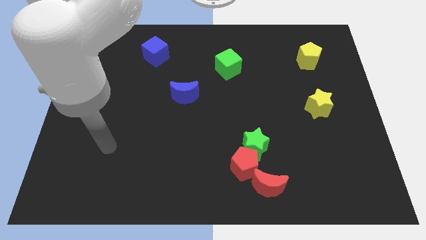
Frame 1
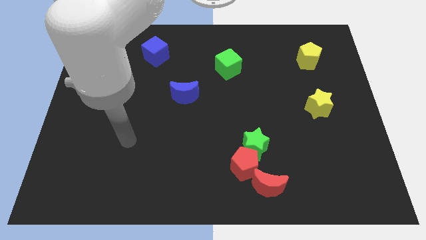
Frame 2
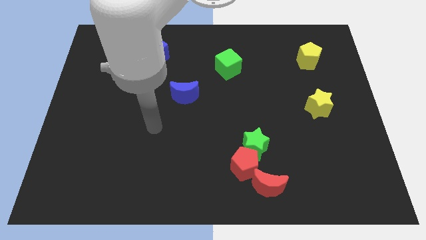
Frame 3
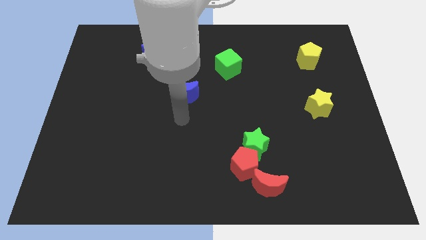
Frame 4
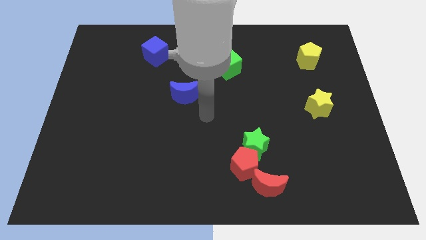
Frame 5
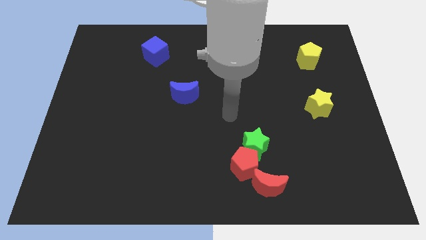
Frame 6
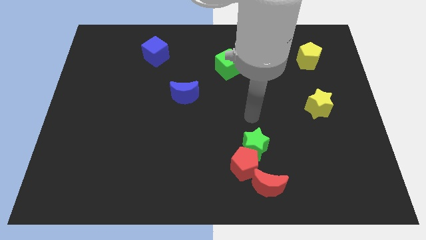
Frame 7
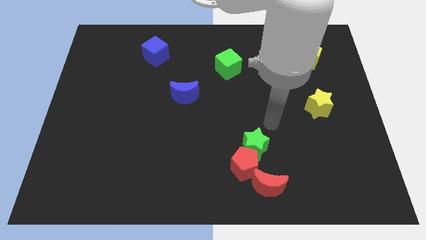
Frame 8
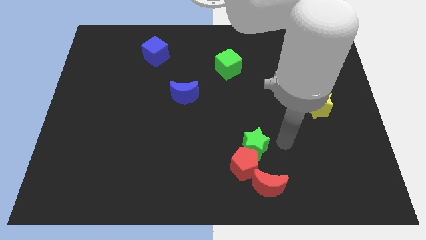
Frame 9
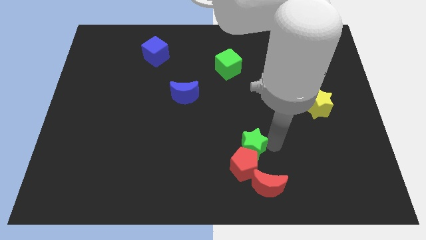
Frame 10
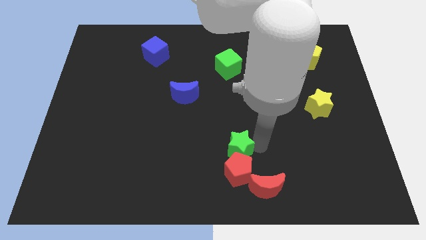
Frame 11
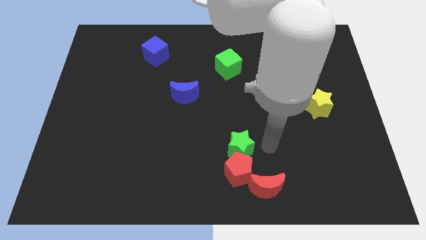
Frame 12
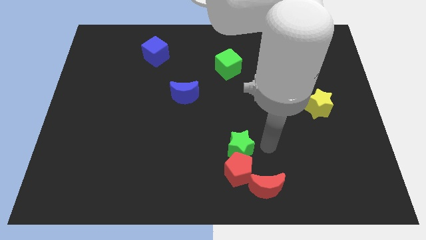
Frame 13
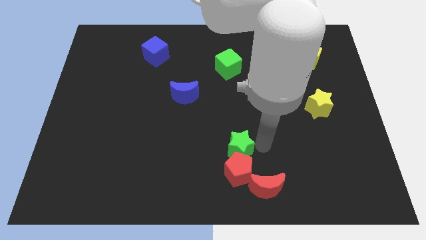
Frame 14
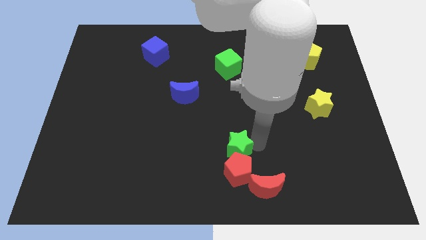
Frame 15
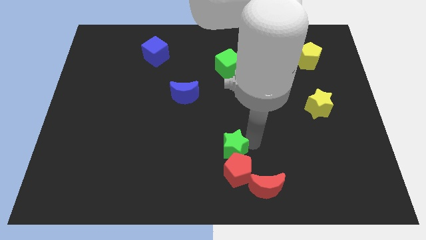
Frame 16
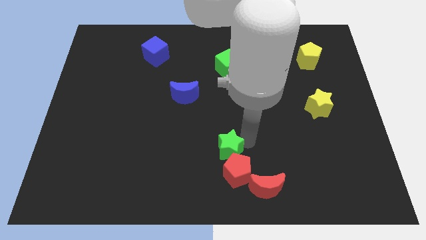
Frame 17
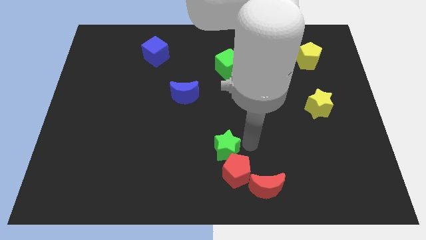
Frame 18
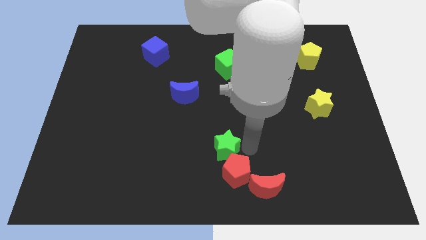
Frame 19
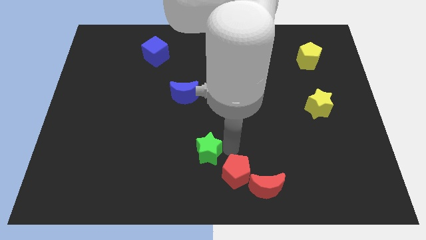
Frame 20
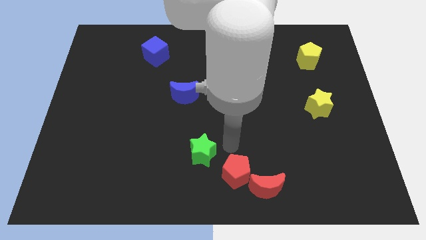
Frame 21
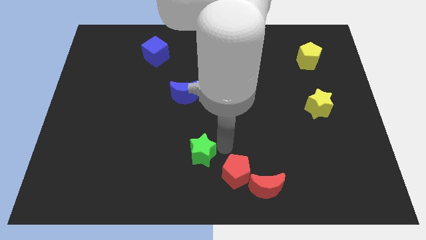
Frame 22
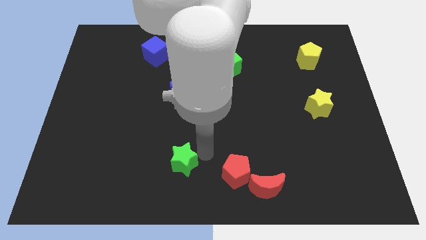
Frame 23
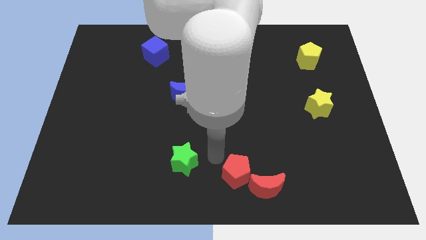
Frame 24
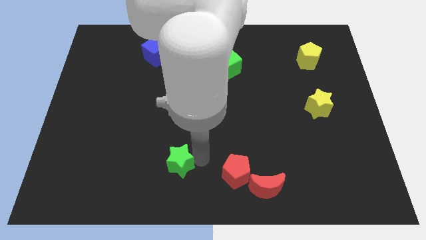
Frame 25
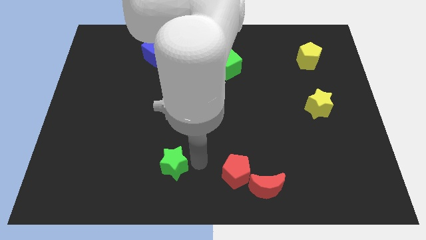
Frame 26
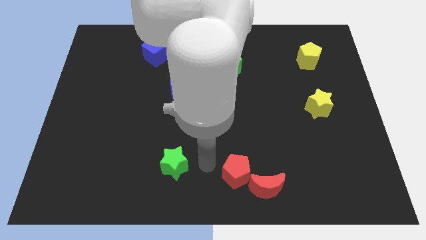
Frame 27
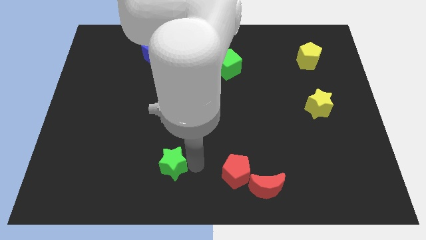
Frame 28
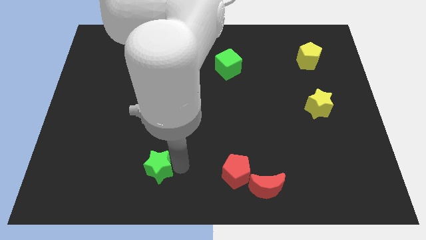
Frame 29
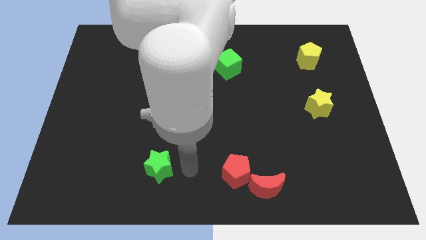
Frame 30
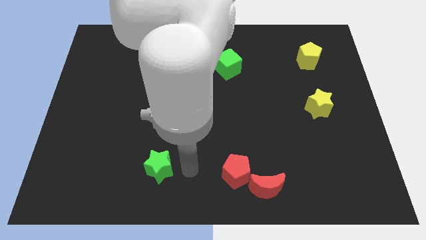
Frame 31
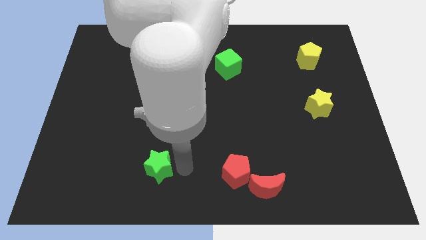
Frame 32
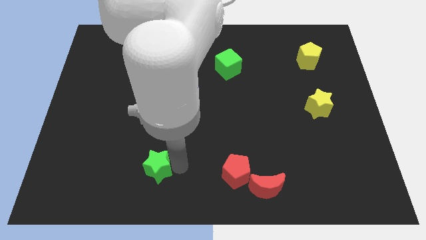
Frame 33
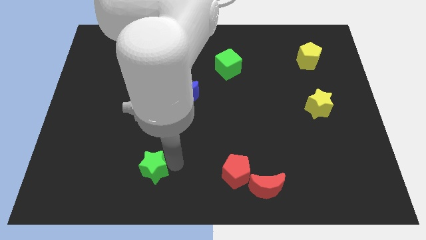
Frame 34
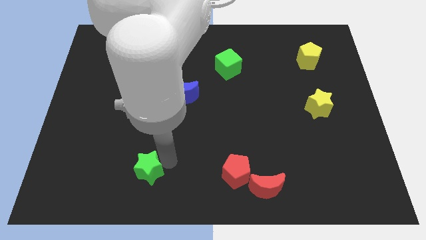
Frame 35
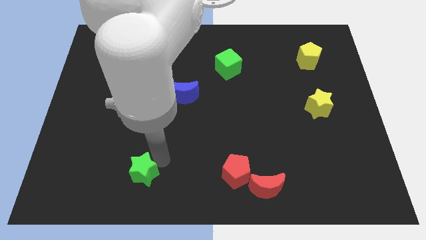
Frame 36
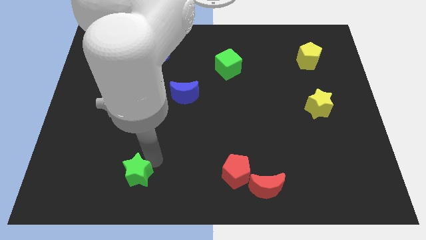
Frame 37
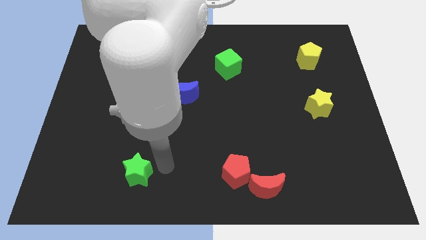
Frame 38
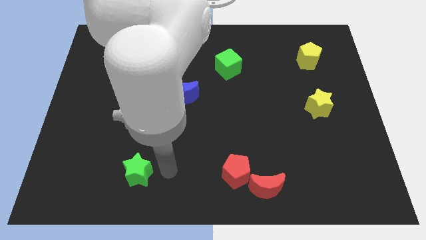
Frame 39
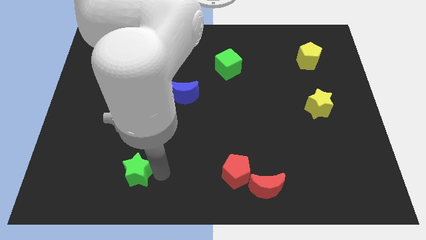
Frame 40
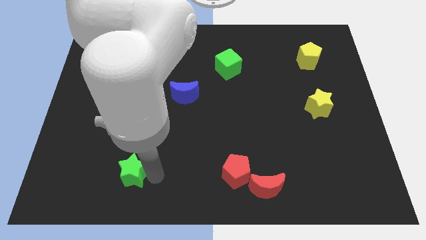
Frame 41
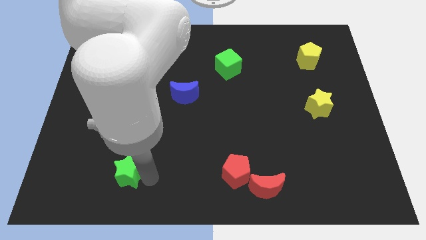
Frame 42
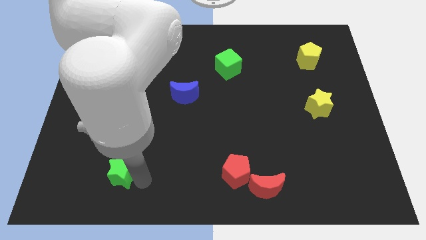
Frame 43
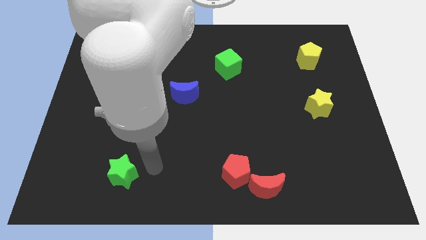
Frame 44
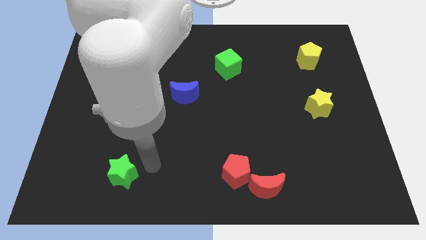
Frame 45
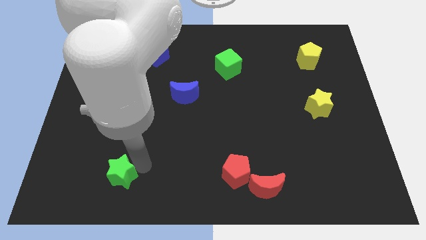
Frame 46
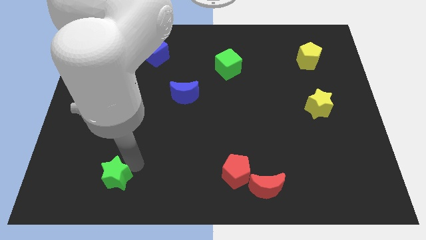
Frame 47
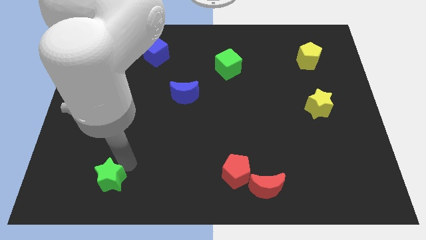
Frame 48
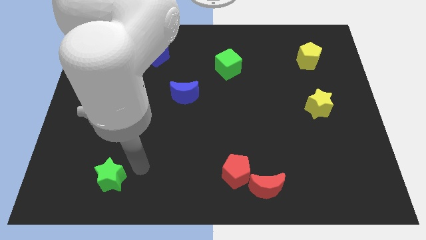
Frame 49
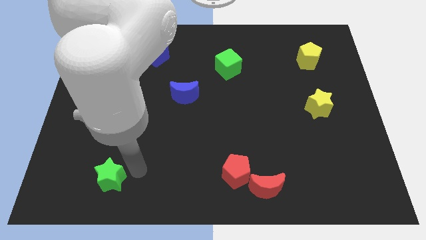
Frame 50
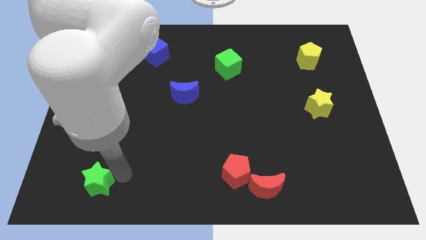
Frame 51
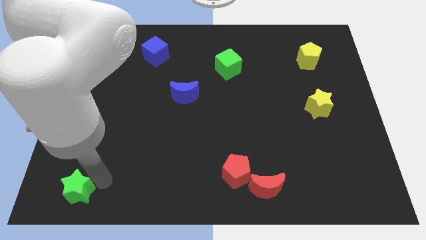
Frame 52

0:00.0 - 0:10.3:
put the green star to the bottom left corner
